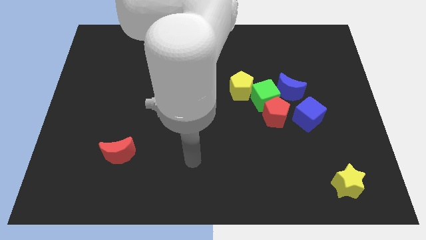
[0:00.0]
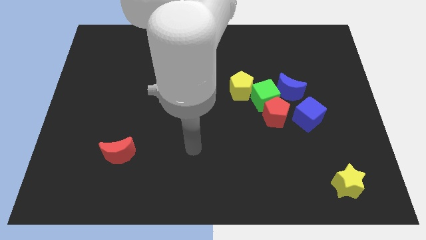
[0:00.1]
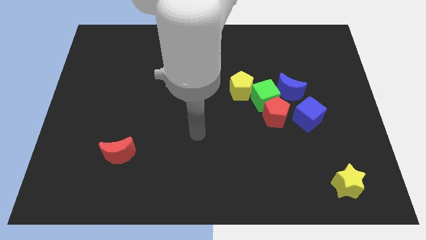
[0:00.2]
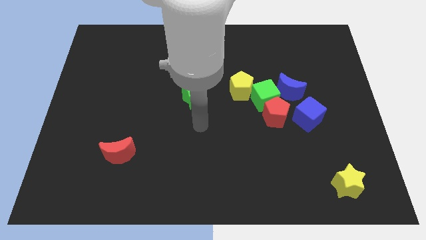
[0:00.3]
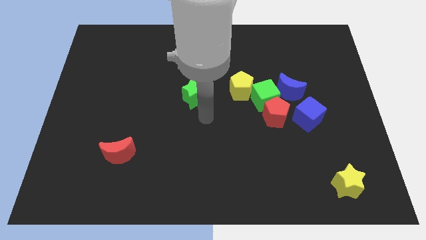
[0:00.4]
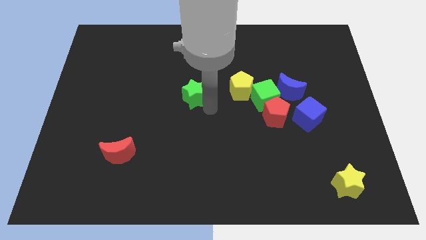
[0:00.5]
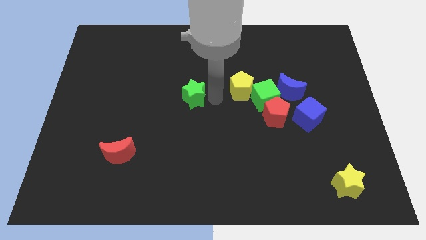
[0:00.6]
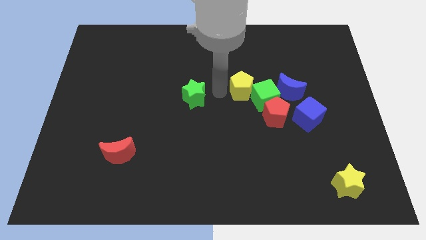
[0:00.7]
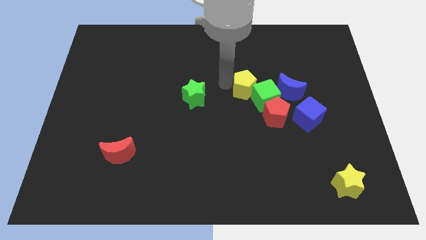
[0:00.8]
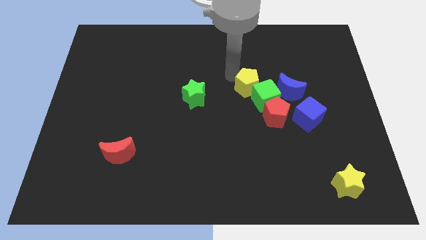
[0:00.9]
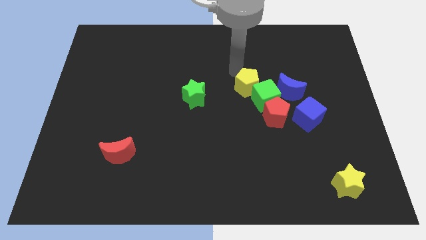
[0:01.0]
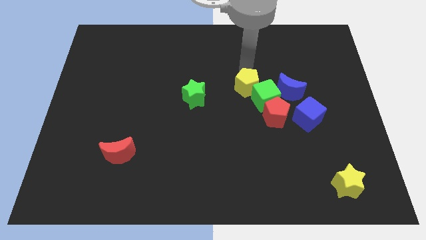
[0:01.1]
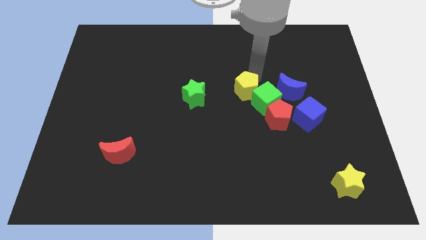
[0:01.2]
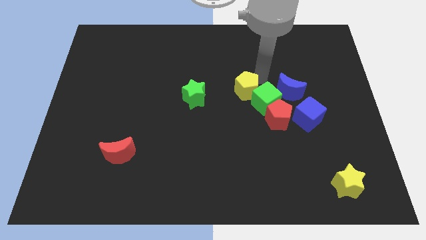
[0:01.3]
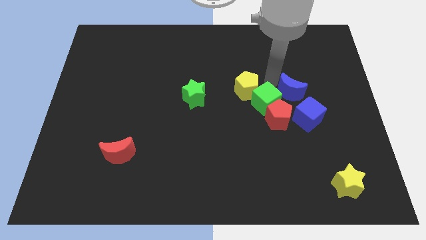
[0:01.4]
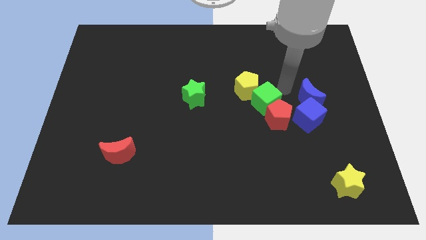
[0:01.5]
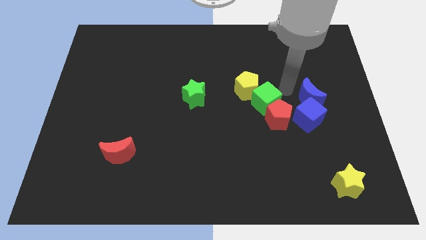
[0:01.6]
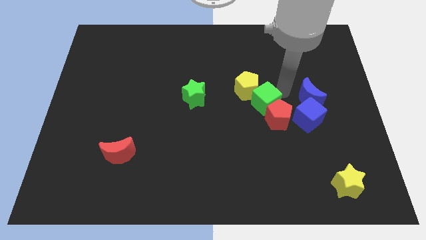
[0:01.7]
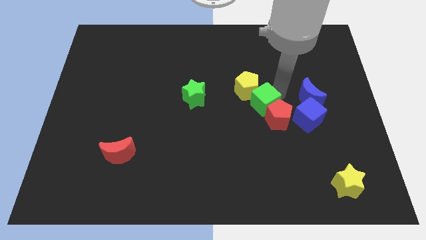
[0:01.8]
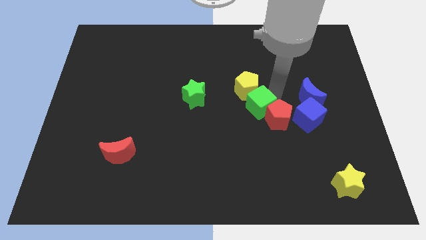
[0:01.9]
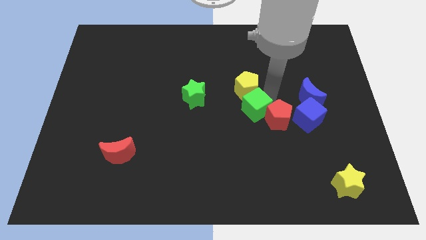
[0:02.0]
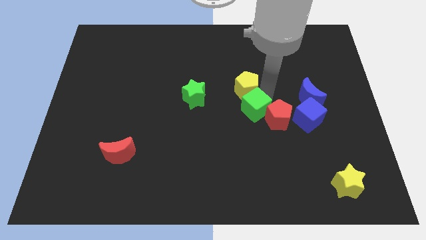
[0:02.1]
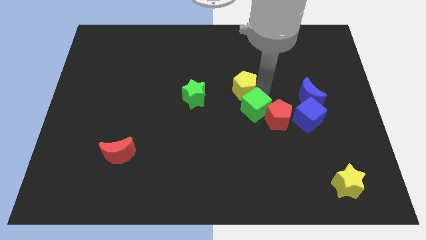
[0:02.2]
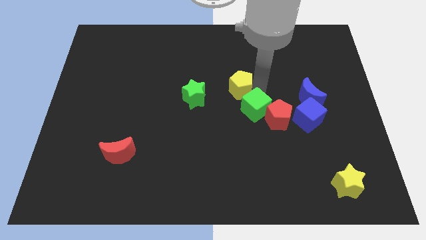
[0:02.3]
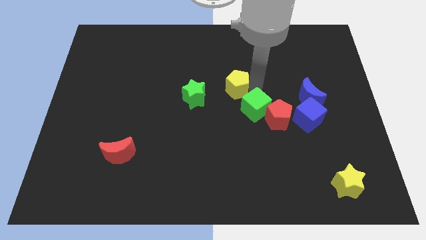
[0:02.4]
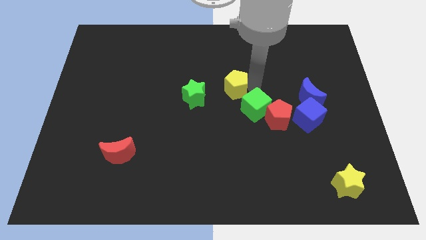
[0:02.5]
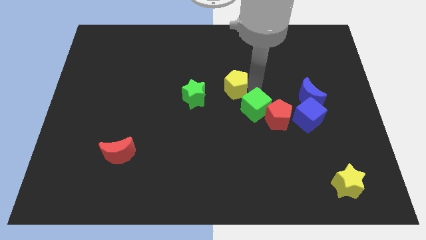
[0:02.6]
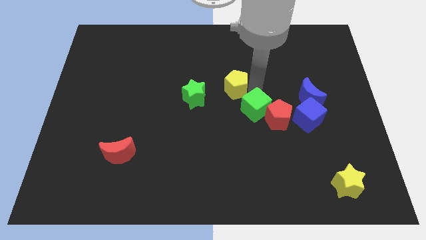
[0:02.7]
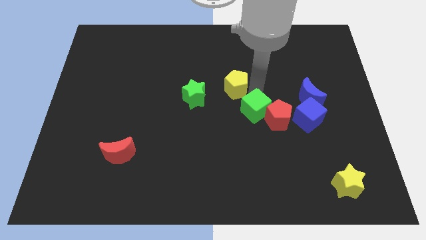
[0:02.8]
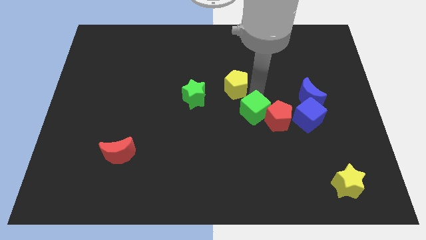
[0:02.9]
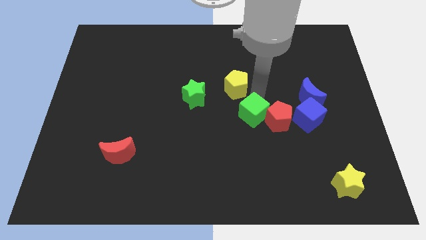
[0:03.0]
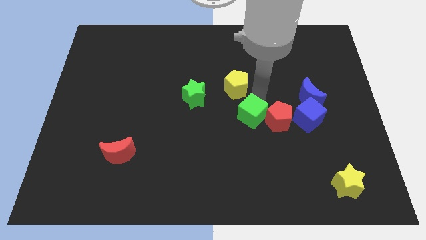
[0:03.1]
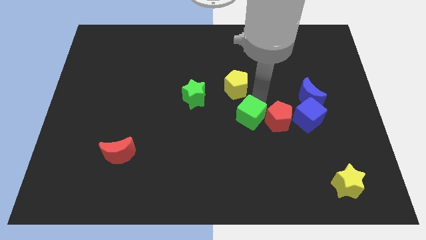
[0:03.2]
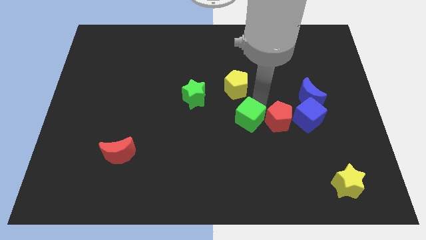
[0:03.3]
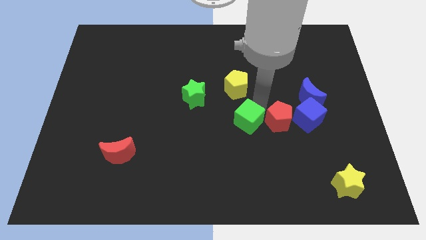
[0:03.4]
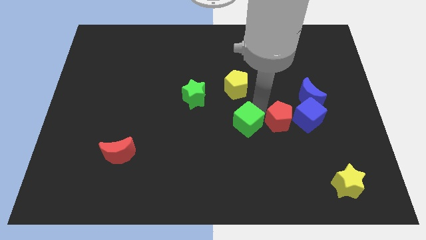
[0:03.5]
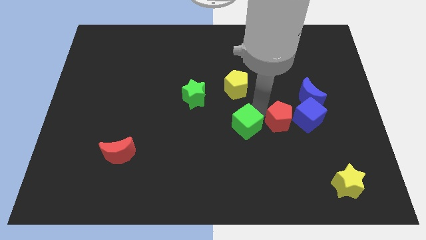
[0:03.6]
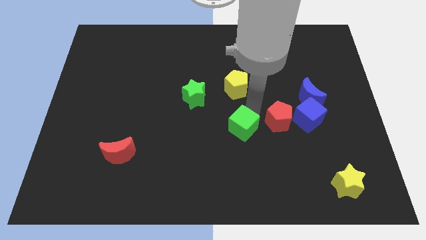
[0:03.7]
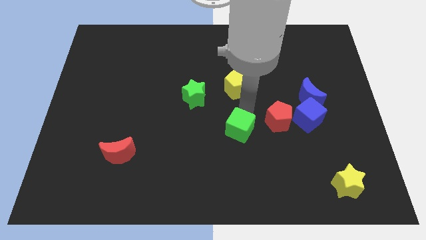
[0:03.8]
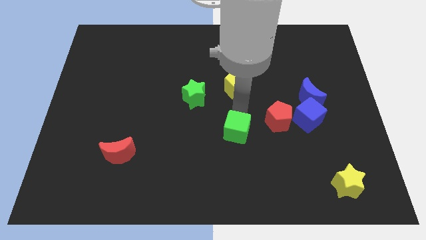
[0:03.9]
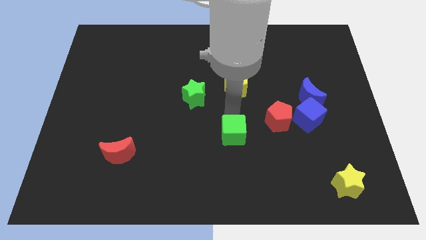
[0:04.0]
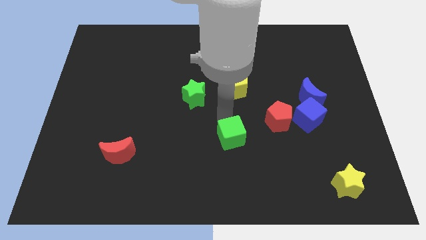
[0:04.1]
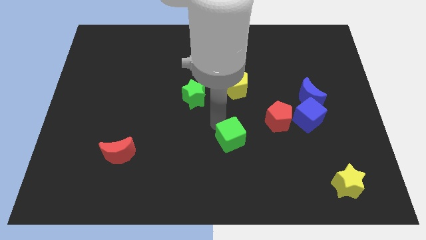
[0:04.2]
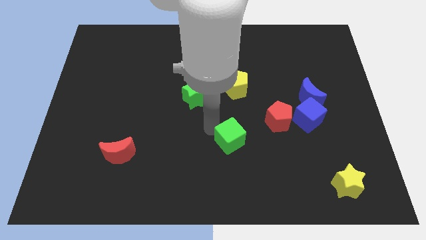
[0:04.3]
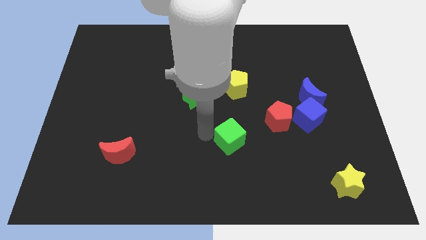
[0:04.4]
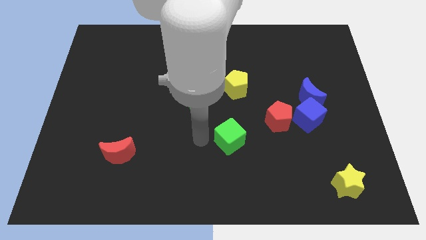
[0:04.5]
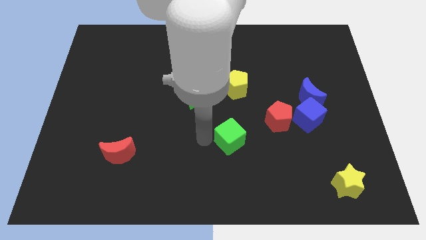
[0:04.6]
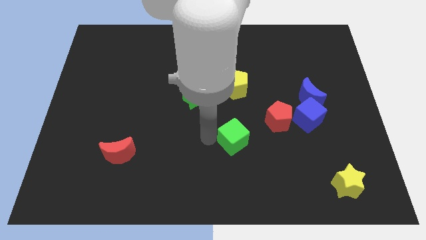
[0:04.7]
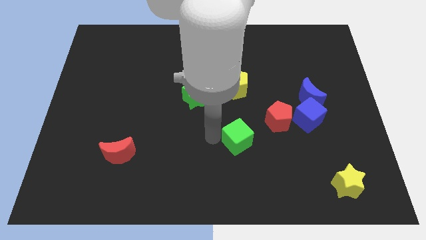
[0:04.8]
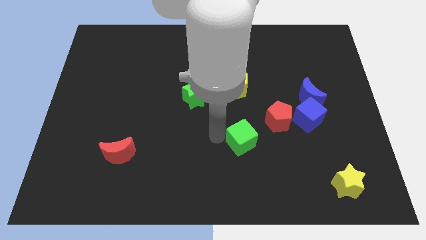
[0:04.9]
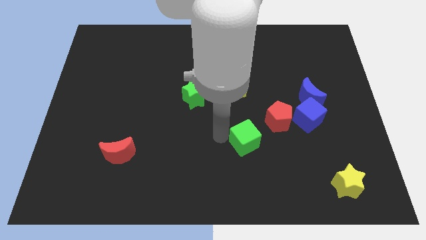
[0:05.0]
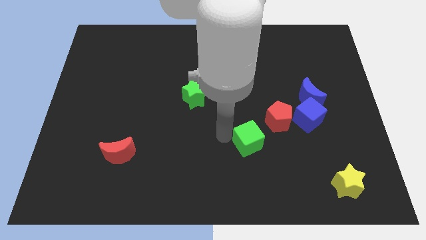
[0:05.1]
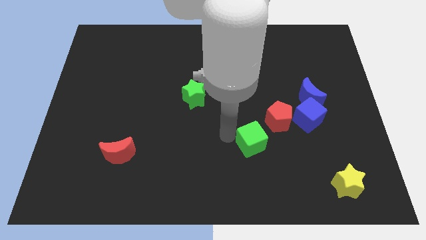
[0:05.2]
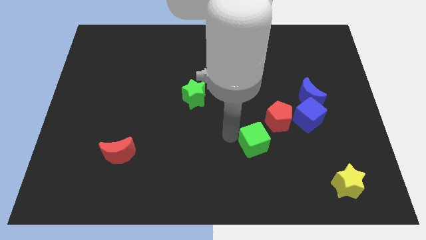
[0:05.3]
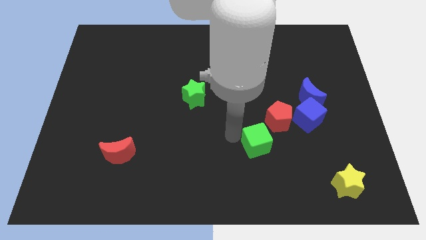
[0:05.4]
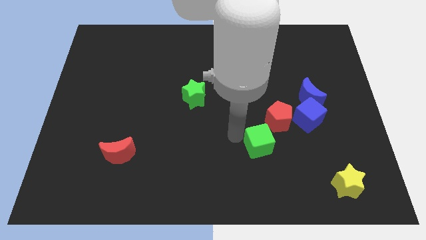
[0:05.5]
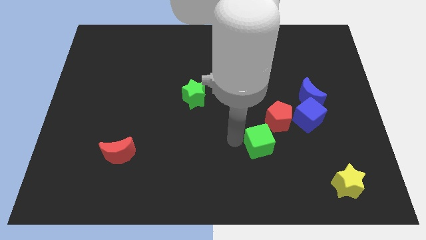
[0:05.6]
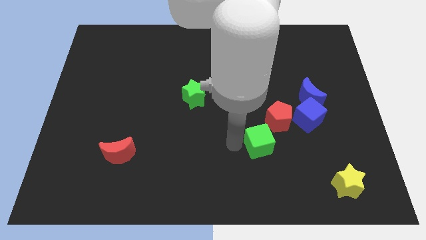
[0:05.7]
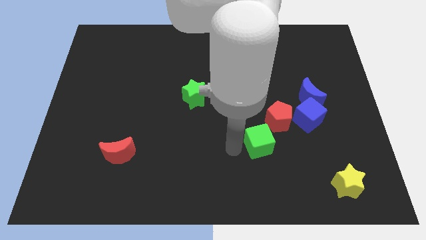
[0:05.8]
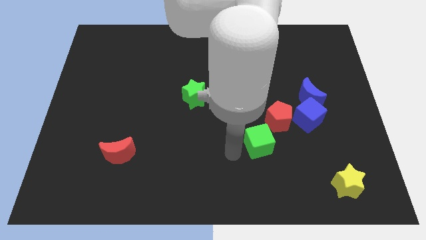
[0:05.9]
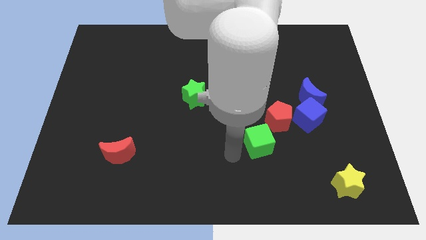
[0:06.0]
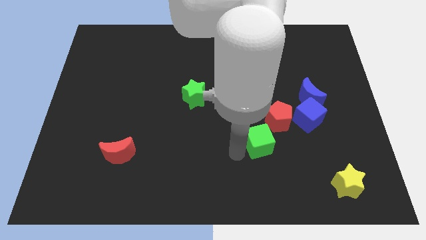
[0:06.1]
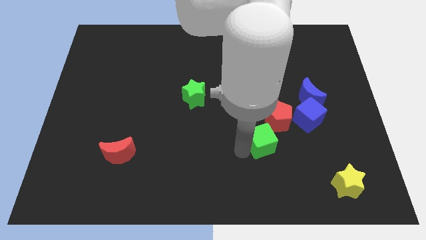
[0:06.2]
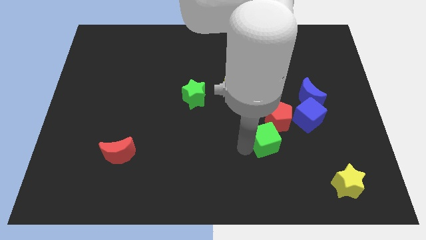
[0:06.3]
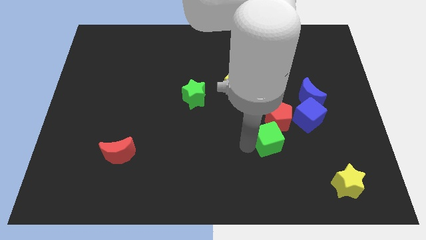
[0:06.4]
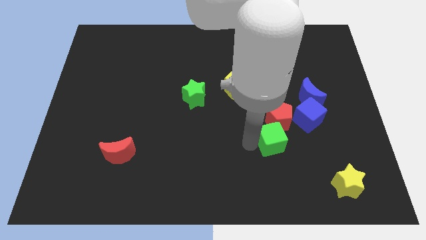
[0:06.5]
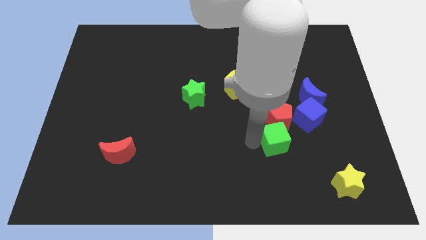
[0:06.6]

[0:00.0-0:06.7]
slightly move the green cube down and then right

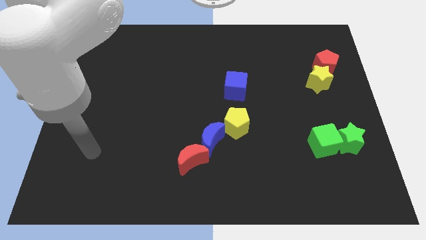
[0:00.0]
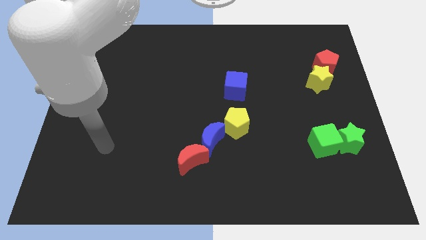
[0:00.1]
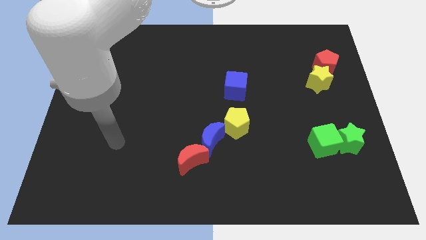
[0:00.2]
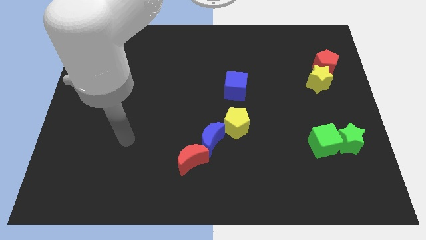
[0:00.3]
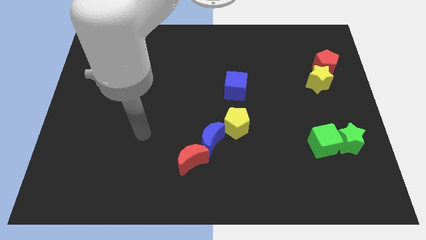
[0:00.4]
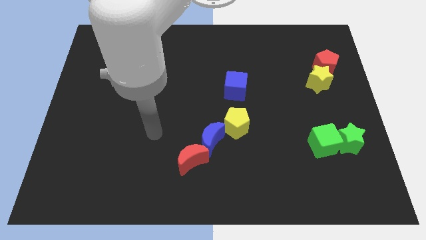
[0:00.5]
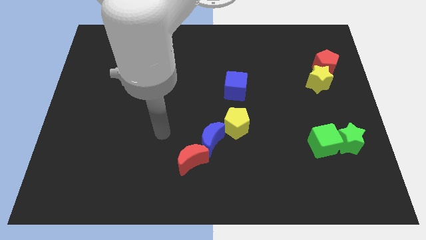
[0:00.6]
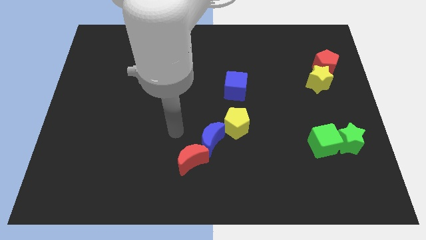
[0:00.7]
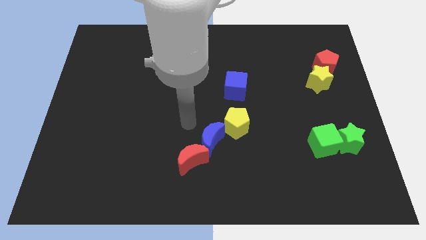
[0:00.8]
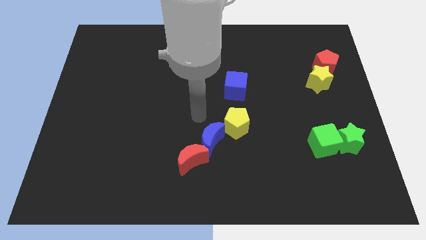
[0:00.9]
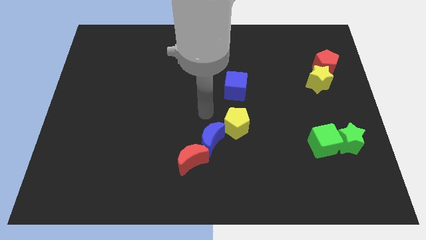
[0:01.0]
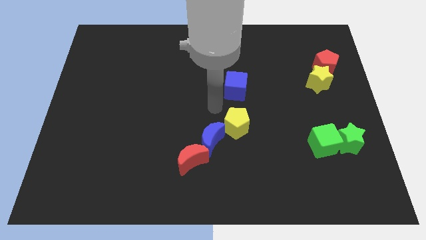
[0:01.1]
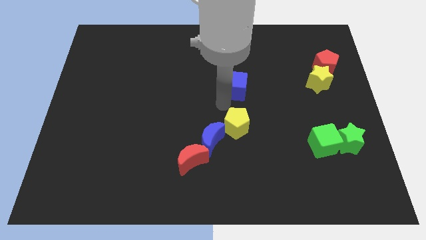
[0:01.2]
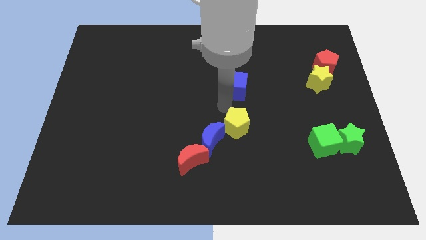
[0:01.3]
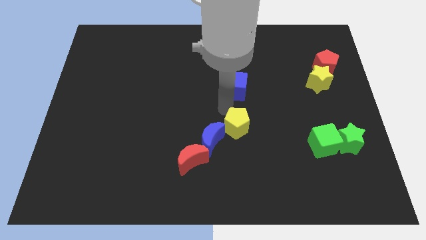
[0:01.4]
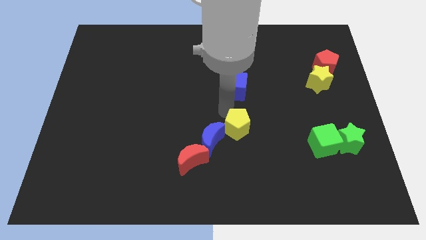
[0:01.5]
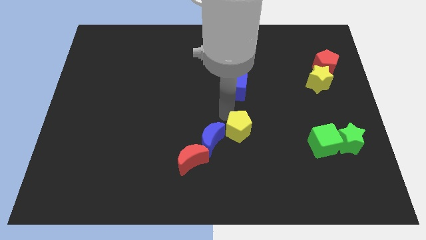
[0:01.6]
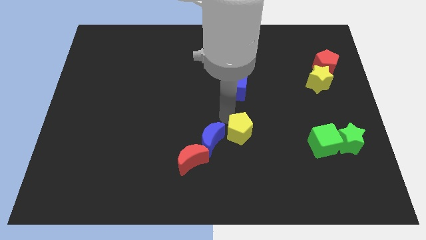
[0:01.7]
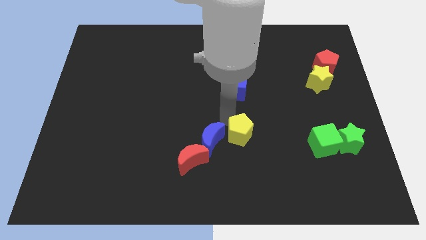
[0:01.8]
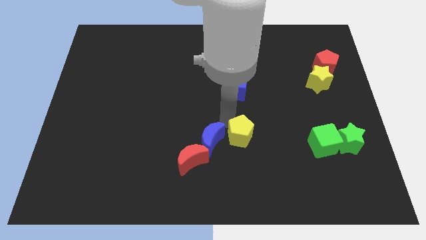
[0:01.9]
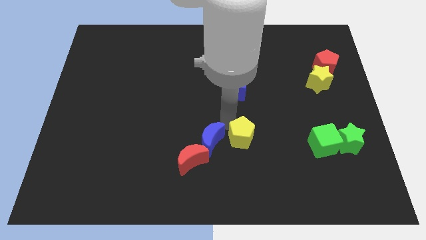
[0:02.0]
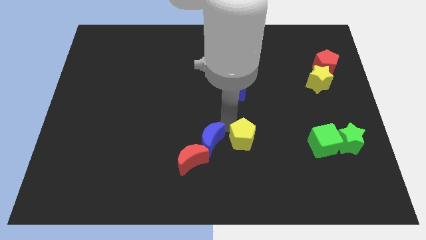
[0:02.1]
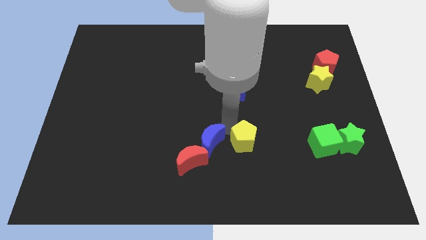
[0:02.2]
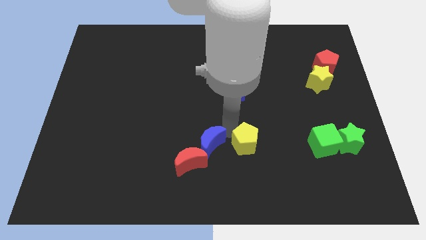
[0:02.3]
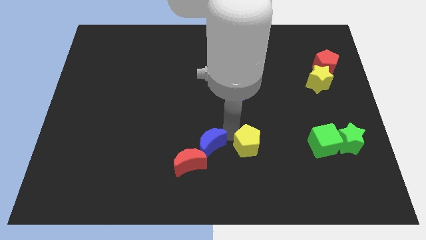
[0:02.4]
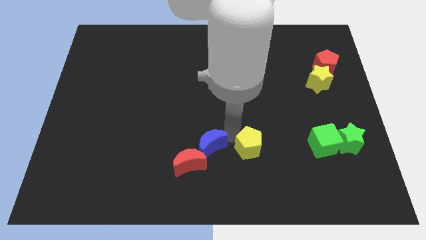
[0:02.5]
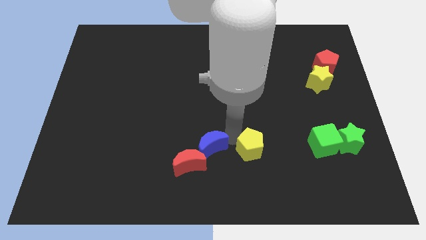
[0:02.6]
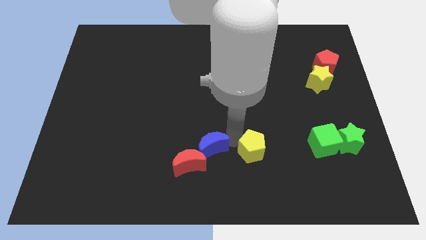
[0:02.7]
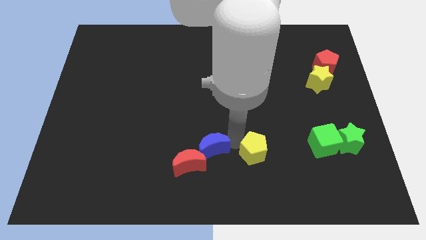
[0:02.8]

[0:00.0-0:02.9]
push the yellow pentagon a little bit downwards and right
